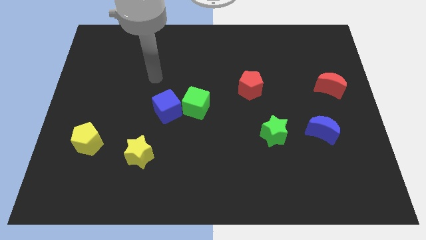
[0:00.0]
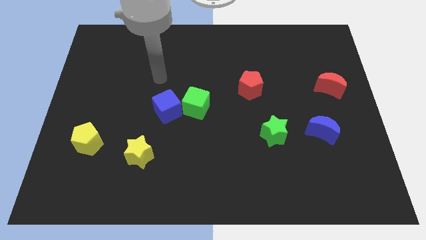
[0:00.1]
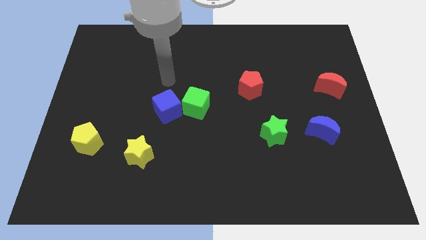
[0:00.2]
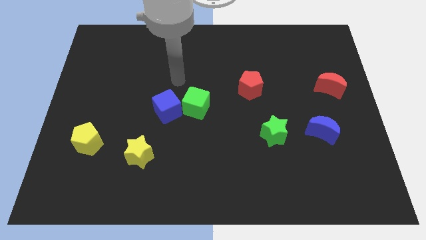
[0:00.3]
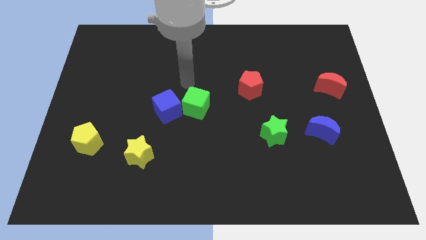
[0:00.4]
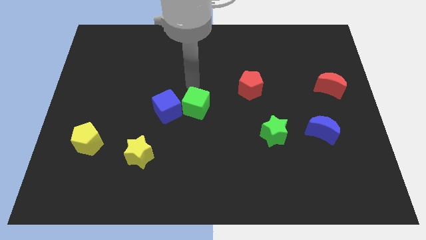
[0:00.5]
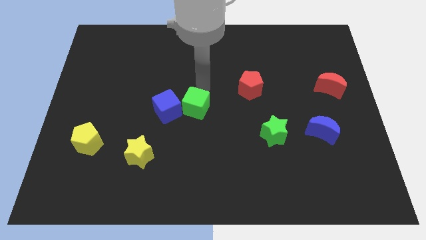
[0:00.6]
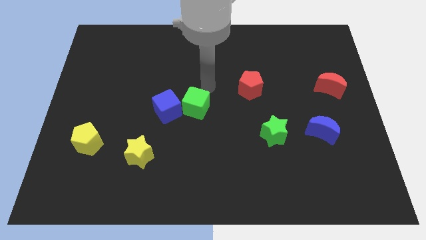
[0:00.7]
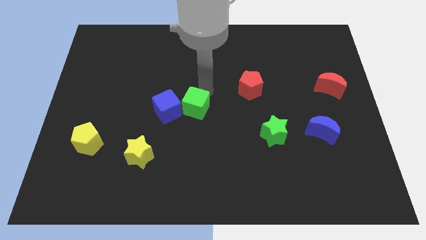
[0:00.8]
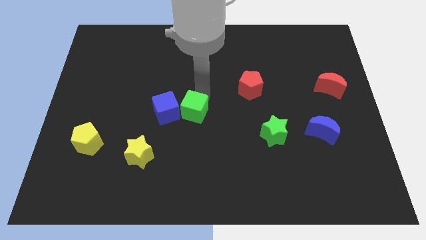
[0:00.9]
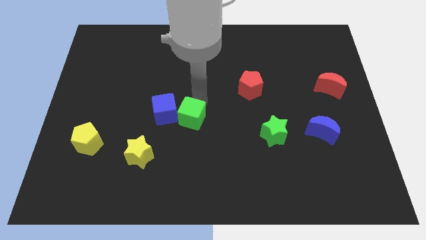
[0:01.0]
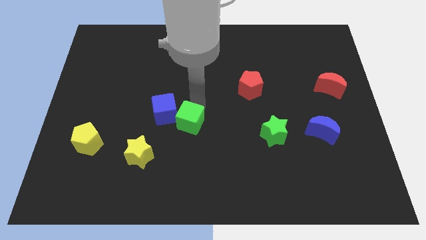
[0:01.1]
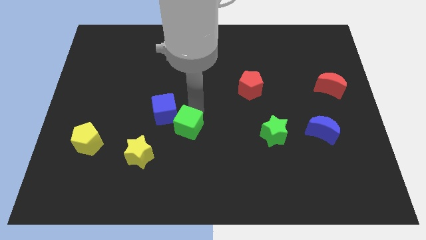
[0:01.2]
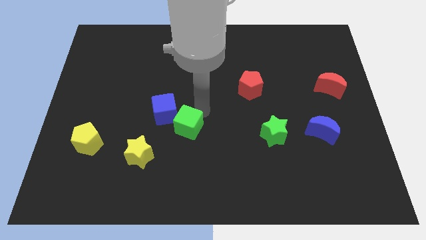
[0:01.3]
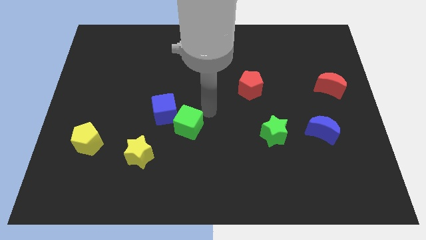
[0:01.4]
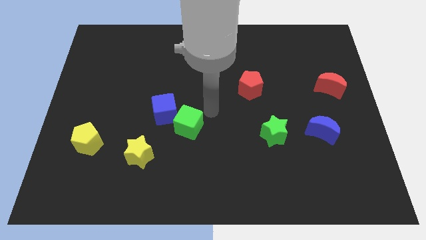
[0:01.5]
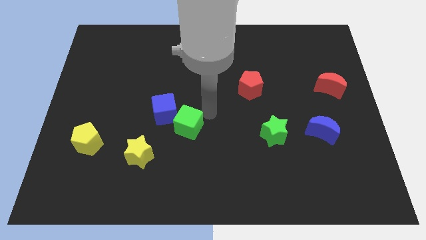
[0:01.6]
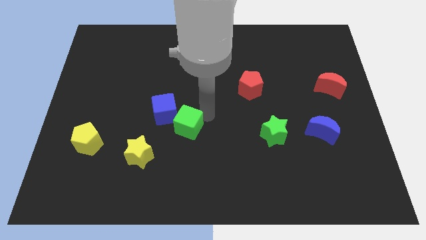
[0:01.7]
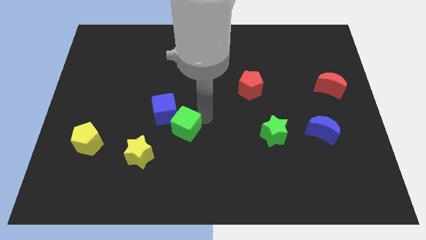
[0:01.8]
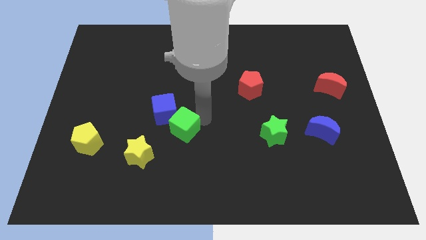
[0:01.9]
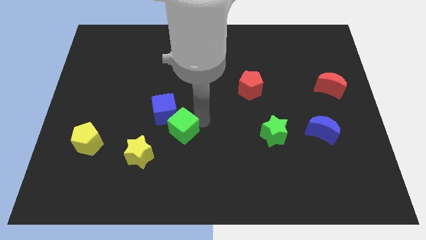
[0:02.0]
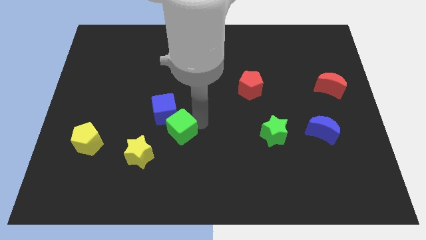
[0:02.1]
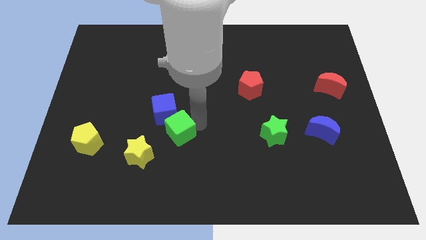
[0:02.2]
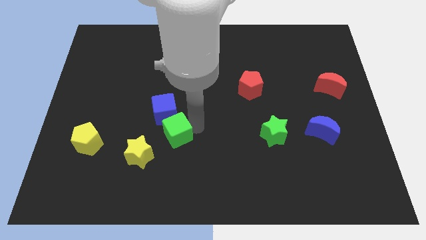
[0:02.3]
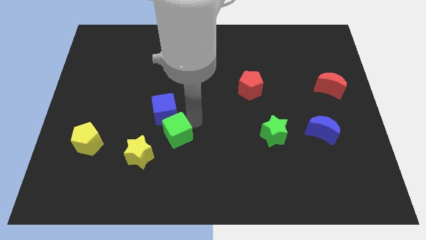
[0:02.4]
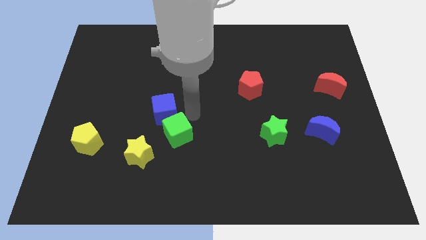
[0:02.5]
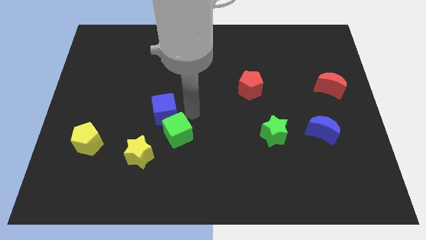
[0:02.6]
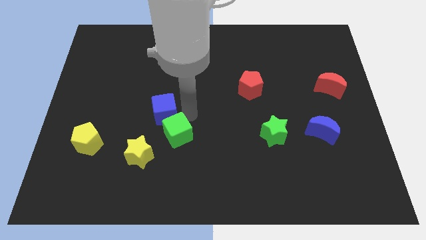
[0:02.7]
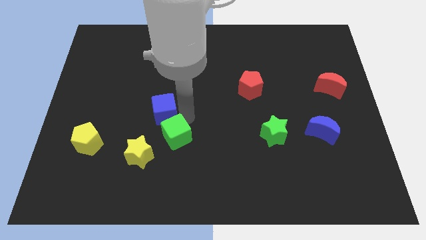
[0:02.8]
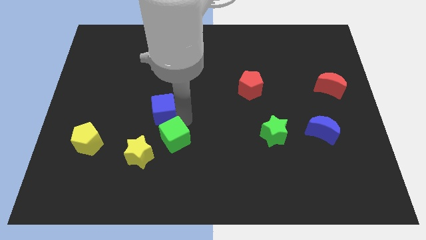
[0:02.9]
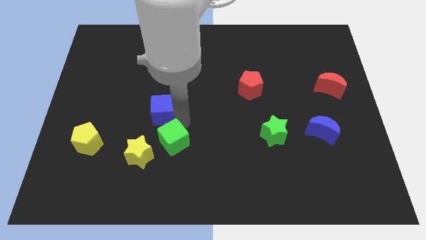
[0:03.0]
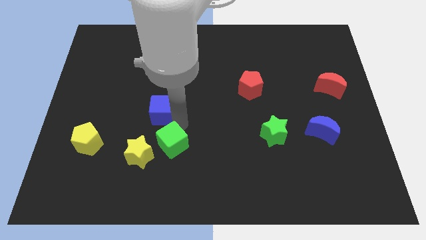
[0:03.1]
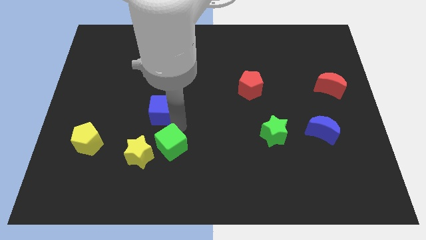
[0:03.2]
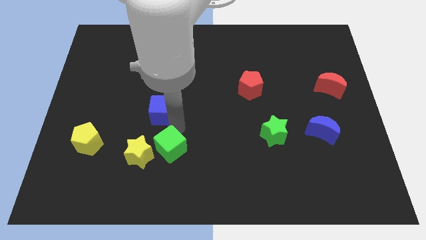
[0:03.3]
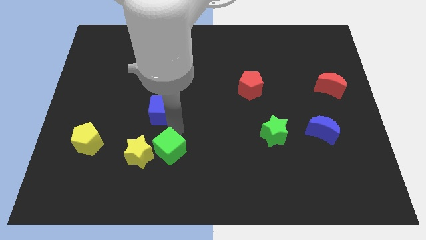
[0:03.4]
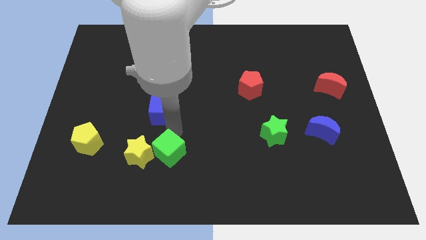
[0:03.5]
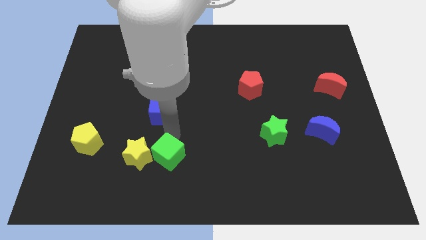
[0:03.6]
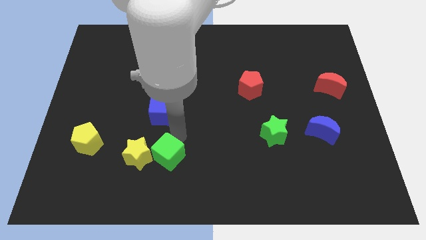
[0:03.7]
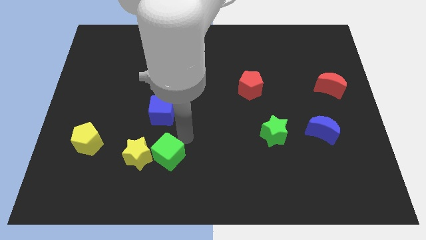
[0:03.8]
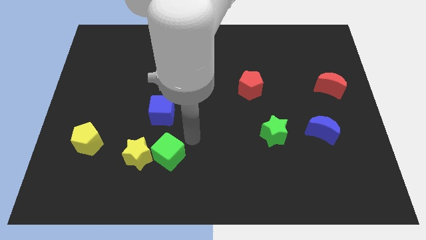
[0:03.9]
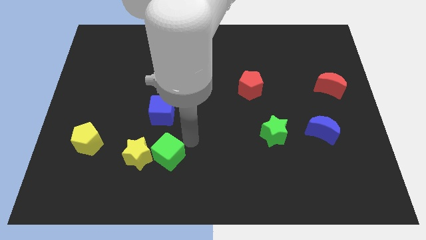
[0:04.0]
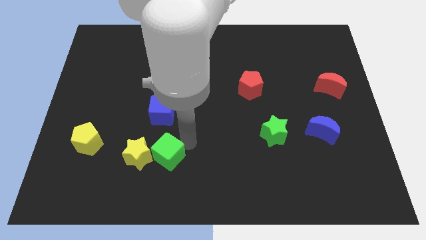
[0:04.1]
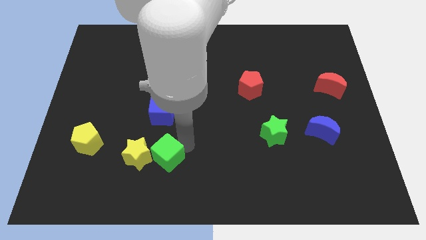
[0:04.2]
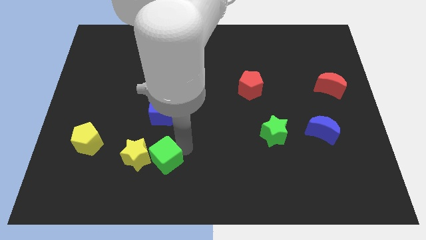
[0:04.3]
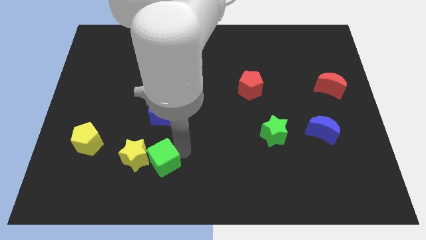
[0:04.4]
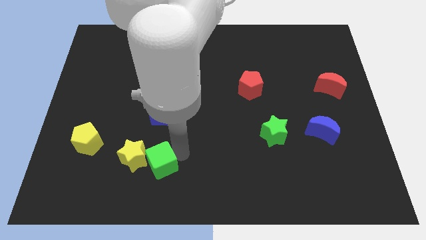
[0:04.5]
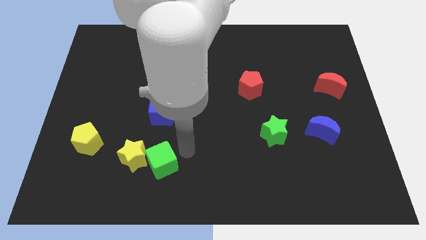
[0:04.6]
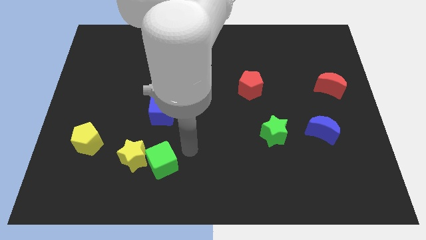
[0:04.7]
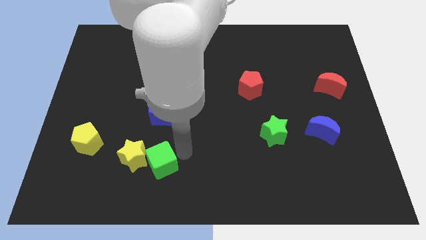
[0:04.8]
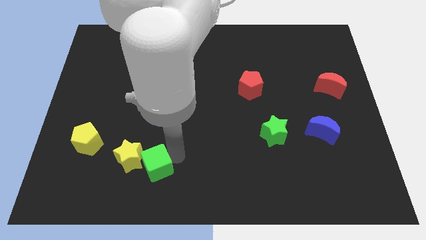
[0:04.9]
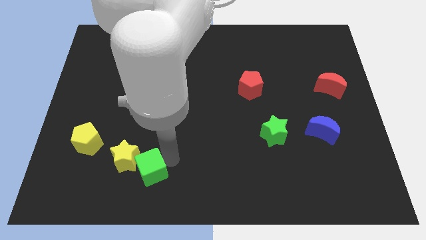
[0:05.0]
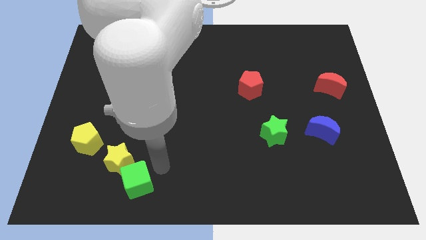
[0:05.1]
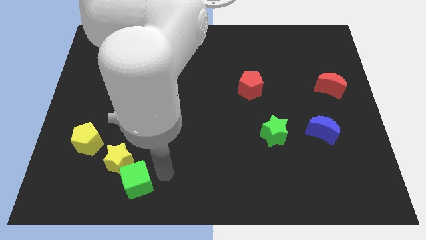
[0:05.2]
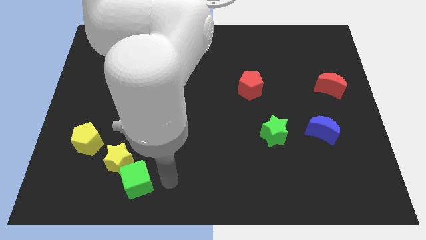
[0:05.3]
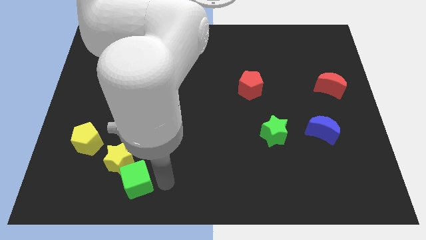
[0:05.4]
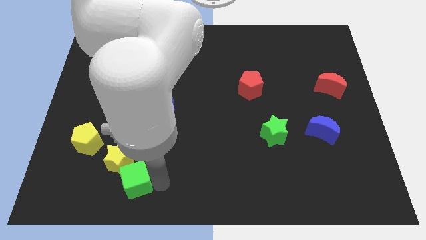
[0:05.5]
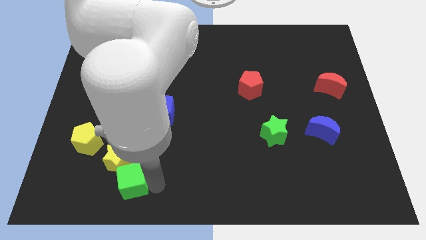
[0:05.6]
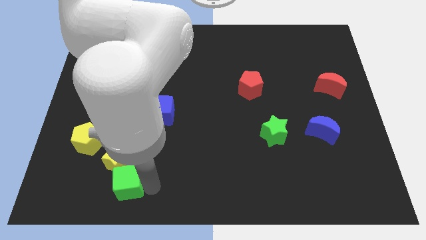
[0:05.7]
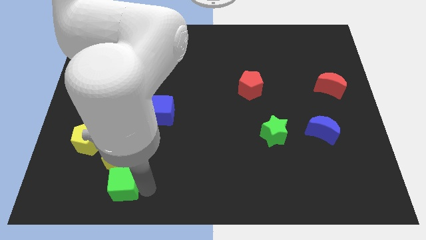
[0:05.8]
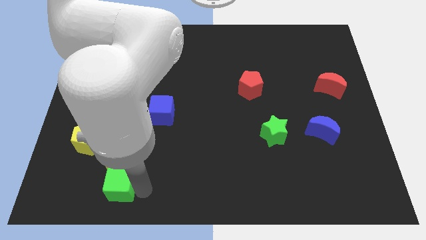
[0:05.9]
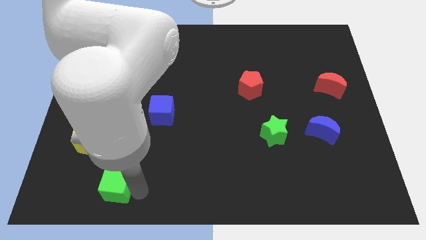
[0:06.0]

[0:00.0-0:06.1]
slide the green cube diagonally down and to the left of the yellow star
